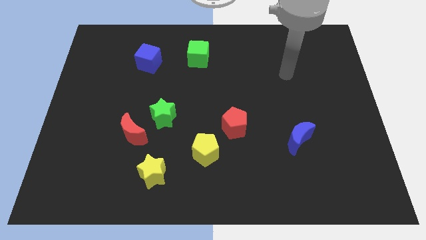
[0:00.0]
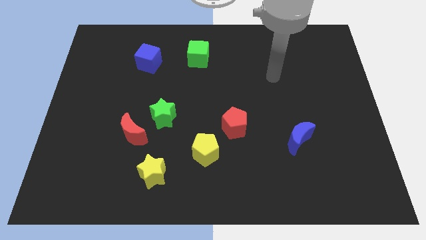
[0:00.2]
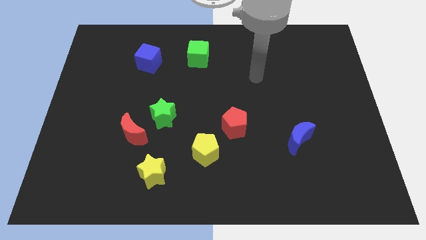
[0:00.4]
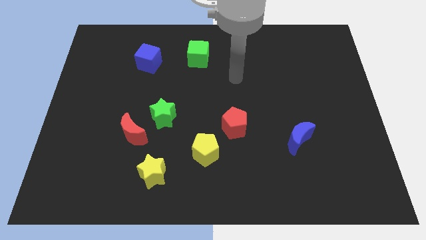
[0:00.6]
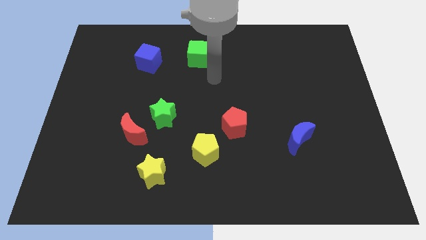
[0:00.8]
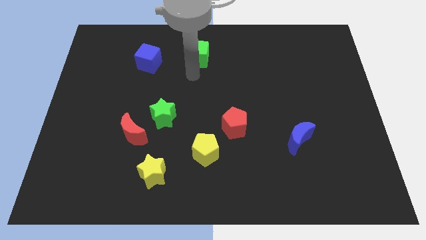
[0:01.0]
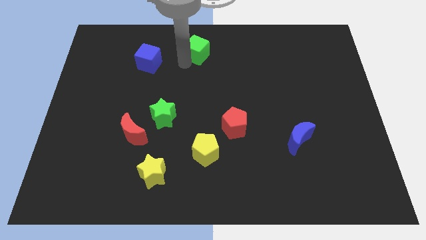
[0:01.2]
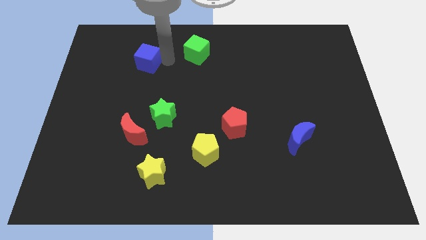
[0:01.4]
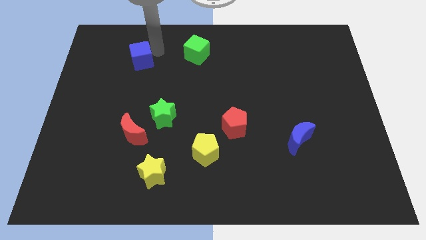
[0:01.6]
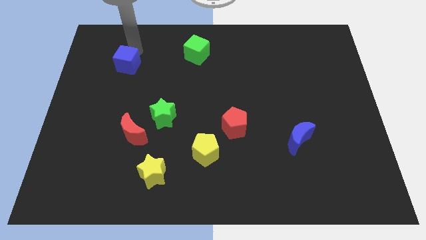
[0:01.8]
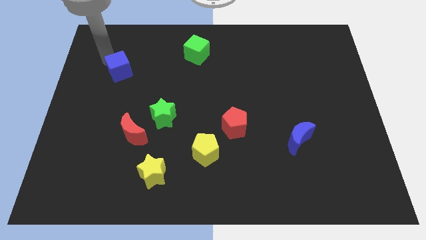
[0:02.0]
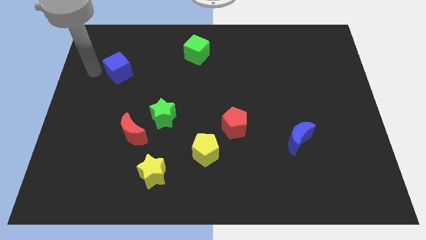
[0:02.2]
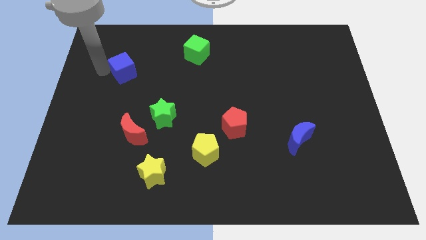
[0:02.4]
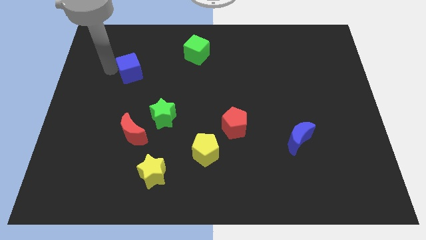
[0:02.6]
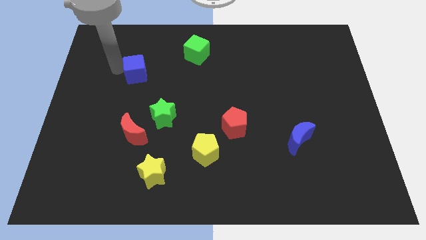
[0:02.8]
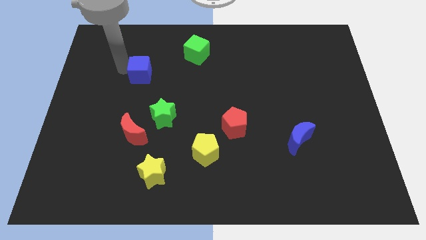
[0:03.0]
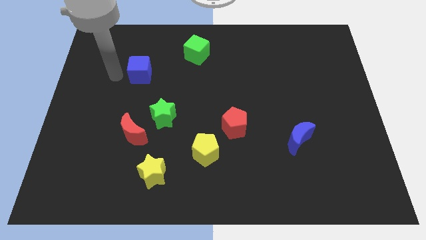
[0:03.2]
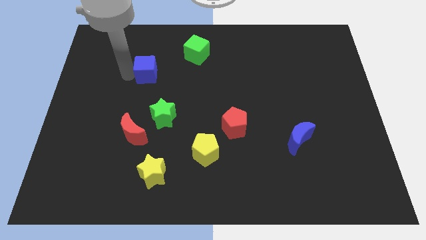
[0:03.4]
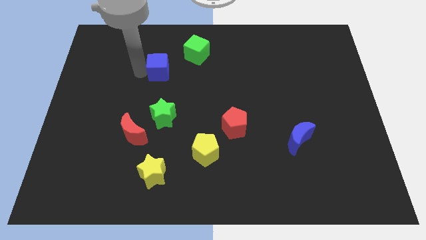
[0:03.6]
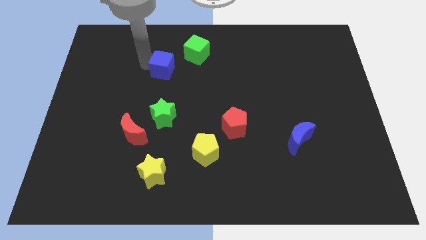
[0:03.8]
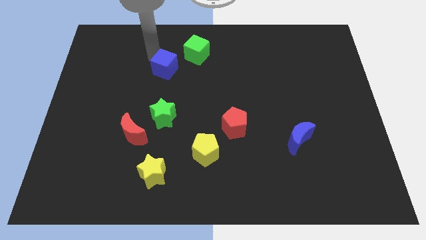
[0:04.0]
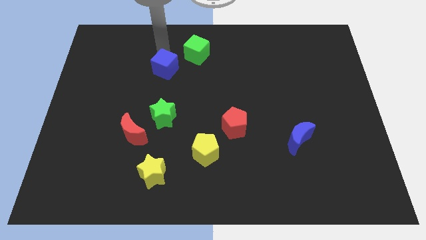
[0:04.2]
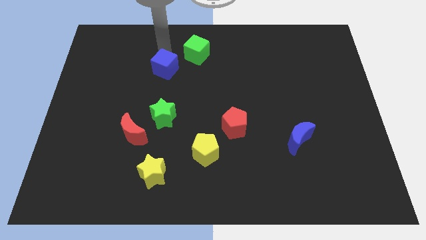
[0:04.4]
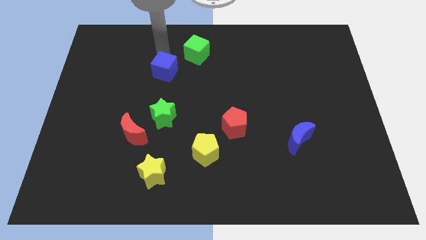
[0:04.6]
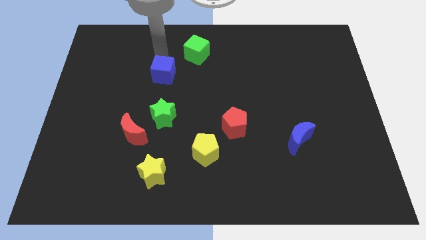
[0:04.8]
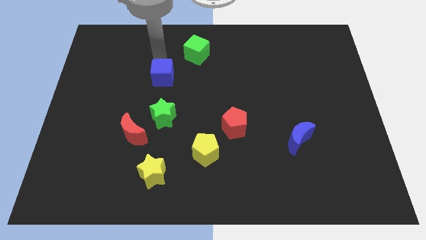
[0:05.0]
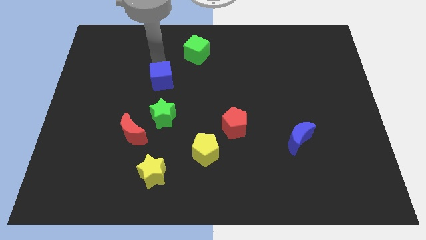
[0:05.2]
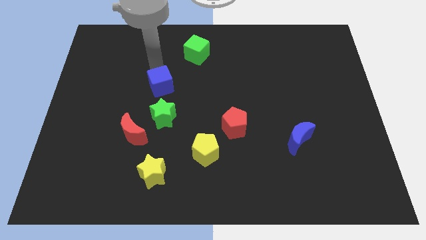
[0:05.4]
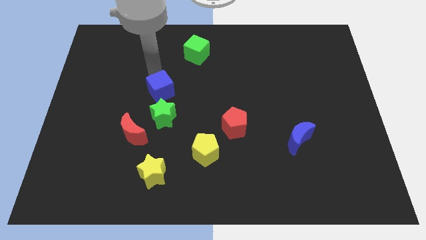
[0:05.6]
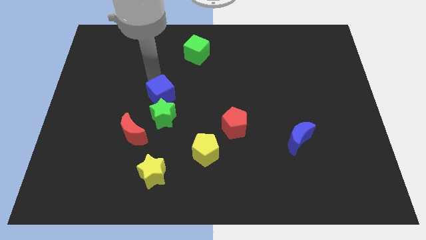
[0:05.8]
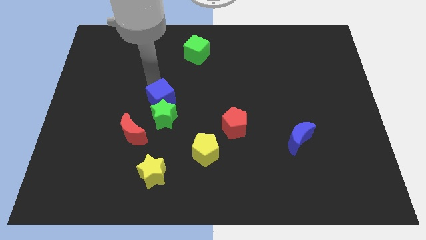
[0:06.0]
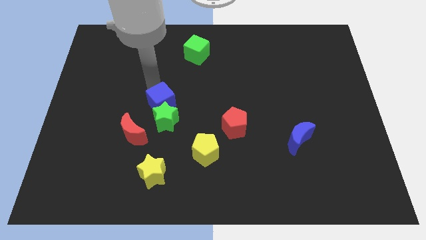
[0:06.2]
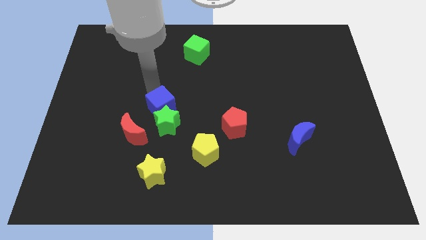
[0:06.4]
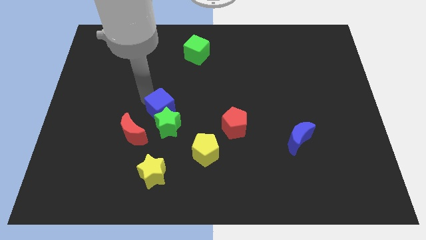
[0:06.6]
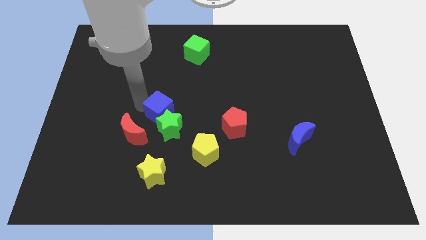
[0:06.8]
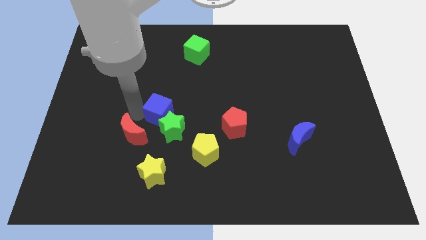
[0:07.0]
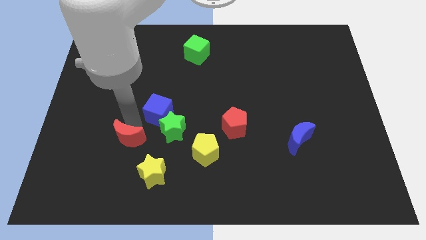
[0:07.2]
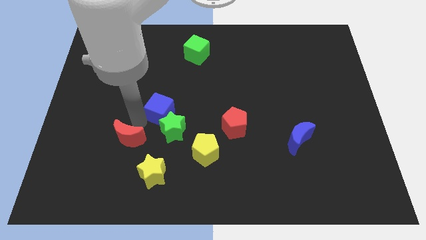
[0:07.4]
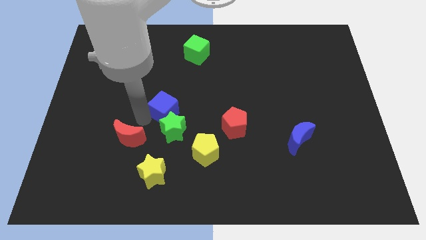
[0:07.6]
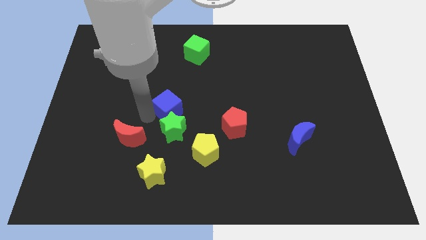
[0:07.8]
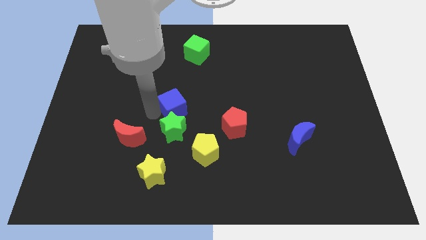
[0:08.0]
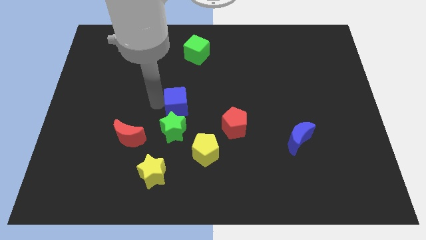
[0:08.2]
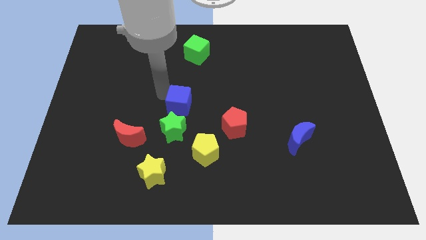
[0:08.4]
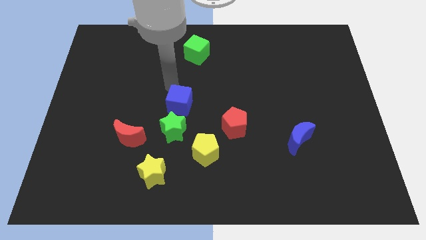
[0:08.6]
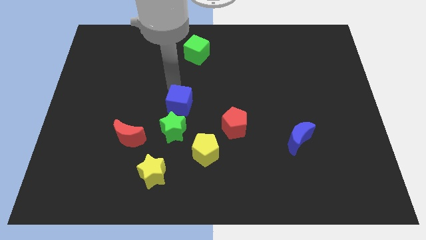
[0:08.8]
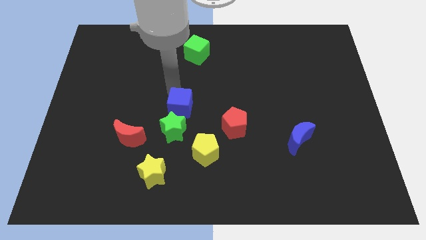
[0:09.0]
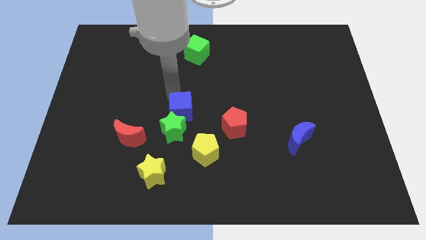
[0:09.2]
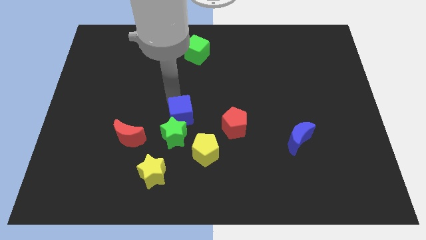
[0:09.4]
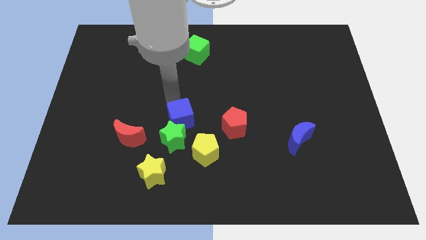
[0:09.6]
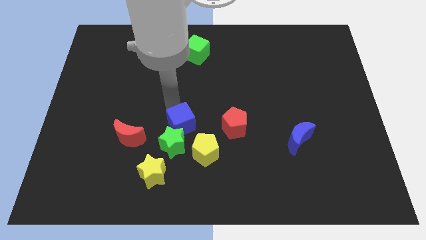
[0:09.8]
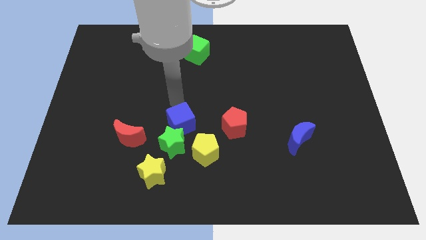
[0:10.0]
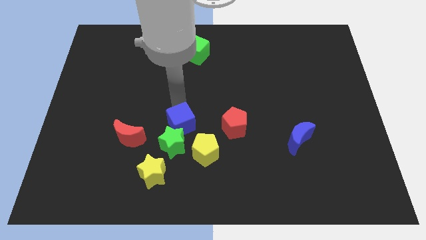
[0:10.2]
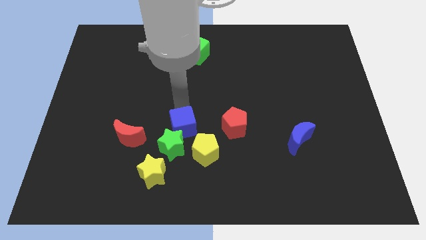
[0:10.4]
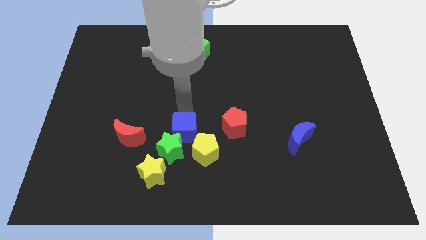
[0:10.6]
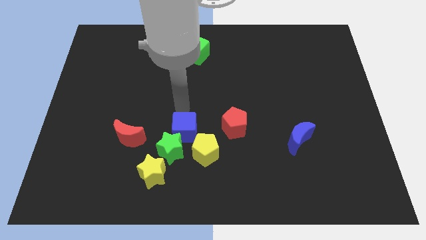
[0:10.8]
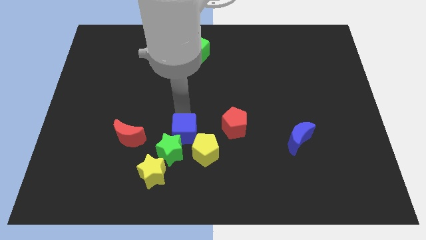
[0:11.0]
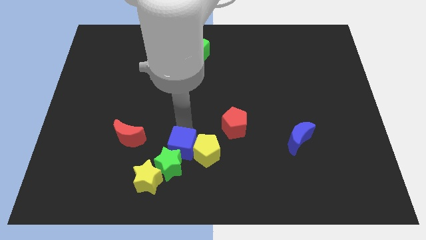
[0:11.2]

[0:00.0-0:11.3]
push the blue cube to the bottom left of the yellow pentagon

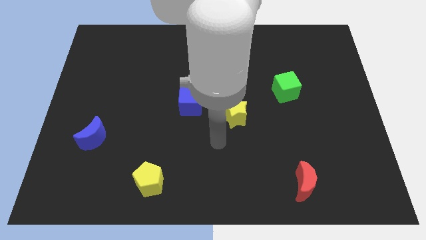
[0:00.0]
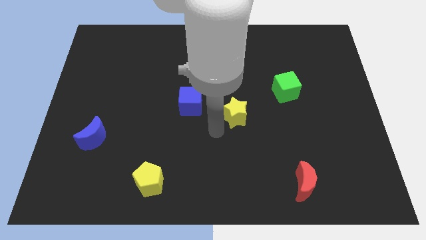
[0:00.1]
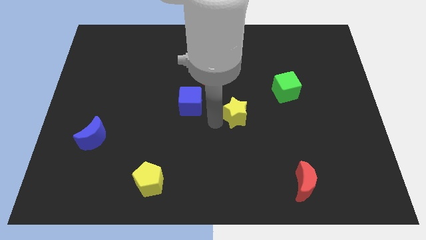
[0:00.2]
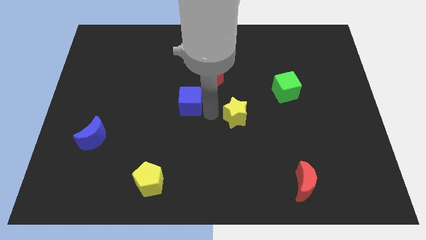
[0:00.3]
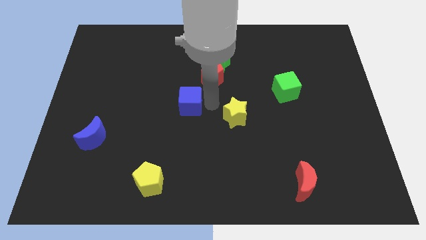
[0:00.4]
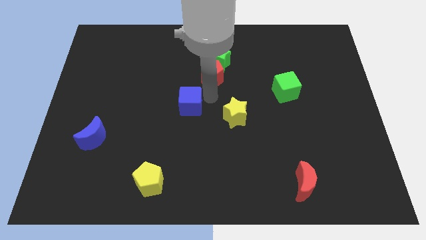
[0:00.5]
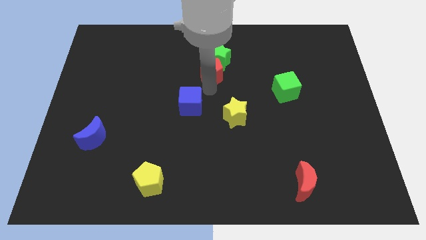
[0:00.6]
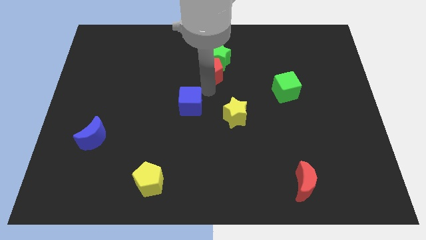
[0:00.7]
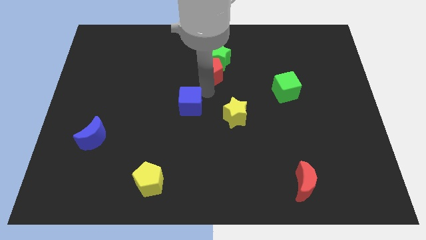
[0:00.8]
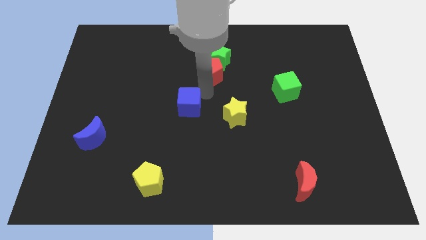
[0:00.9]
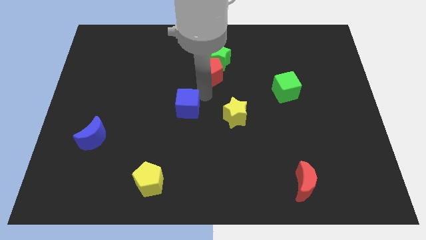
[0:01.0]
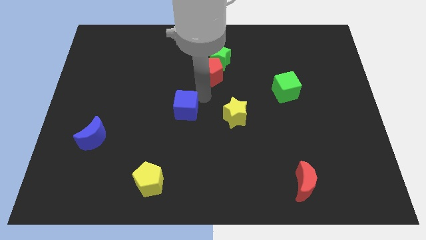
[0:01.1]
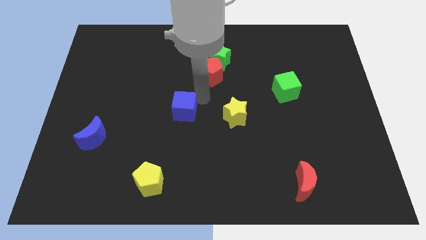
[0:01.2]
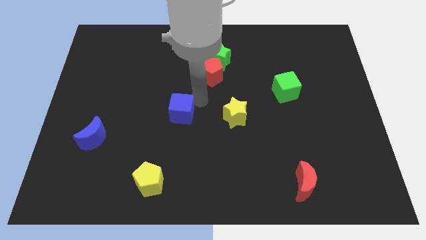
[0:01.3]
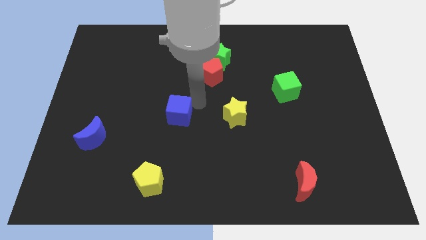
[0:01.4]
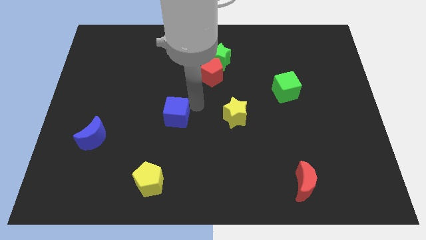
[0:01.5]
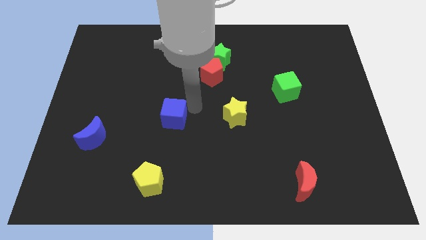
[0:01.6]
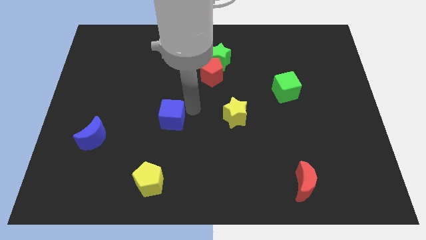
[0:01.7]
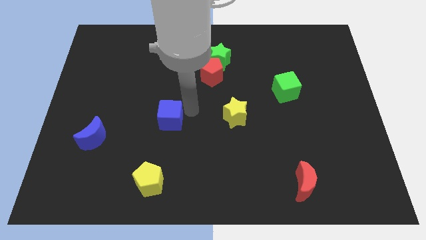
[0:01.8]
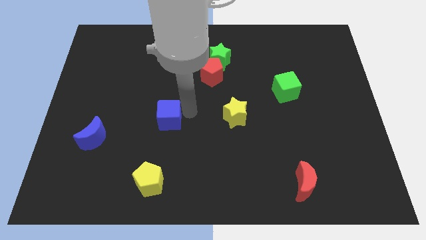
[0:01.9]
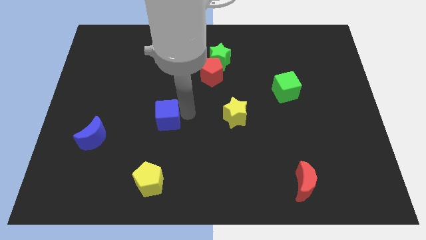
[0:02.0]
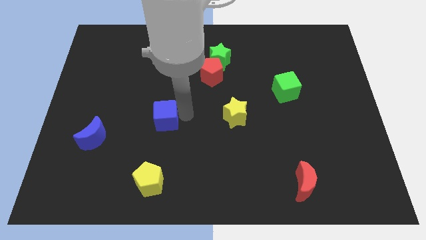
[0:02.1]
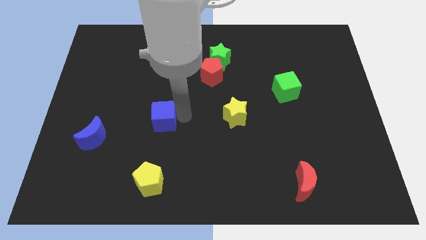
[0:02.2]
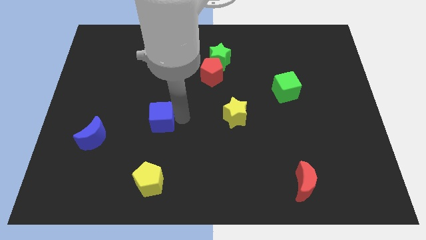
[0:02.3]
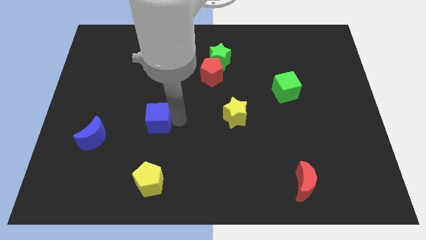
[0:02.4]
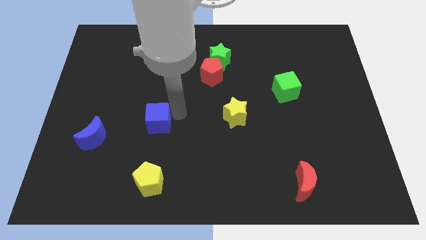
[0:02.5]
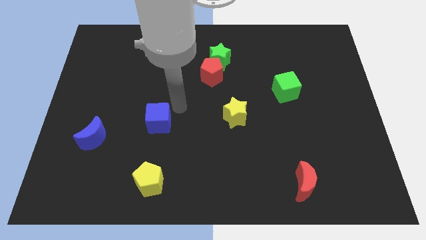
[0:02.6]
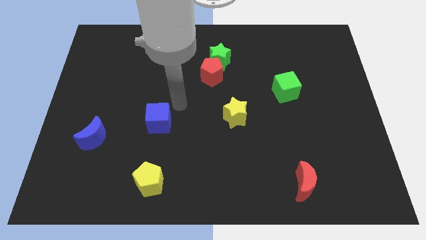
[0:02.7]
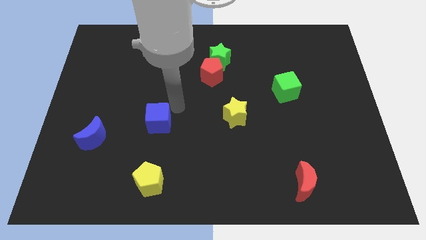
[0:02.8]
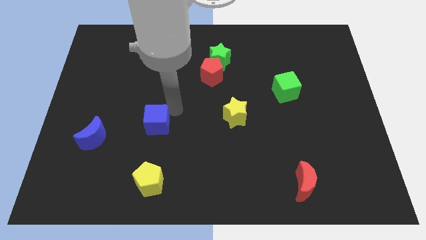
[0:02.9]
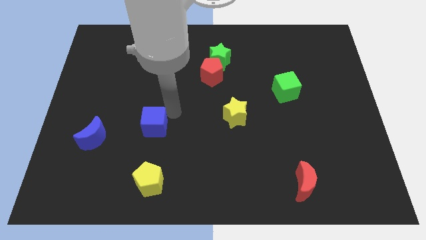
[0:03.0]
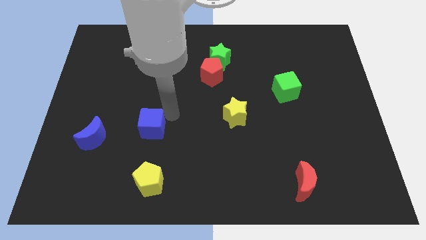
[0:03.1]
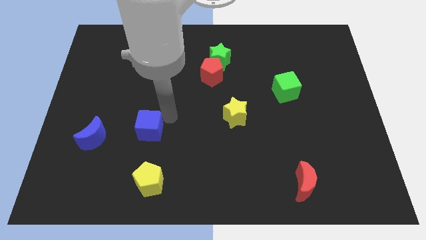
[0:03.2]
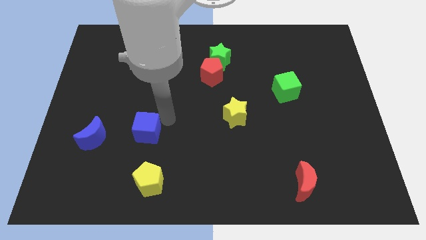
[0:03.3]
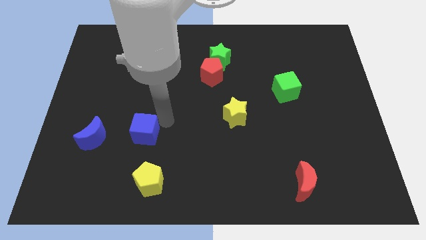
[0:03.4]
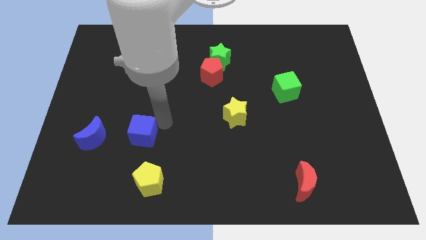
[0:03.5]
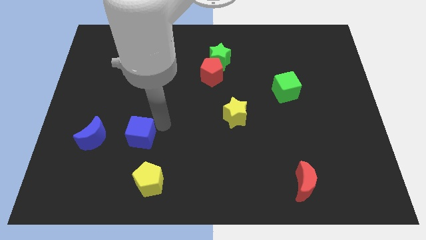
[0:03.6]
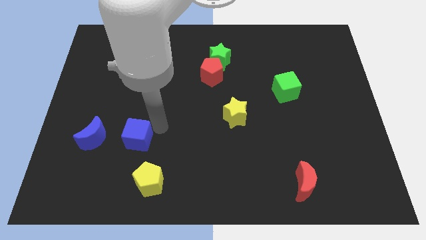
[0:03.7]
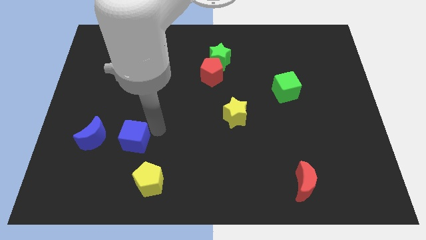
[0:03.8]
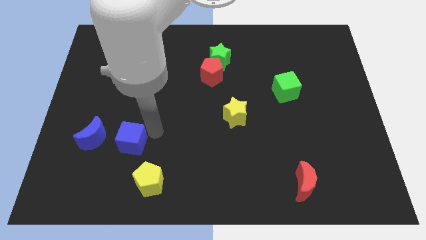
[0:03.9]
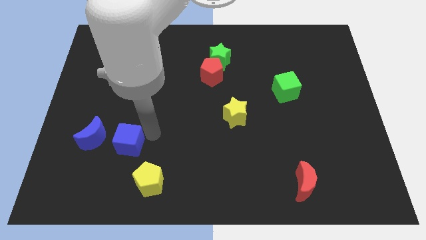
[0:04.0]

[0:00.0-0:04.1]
put the blue cube to the bottom right of the blue moon
